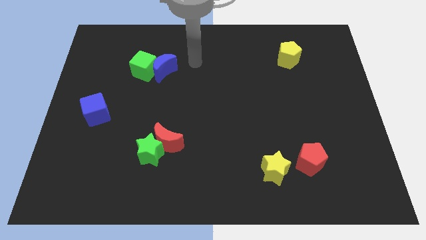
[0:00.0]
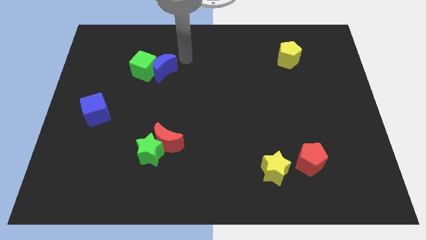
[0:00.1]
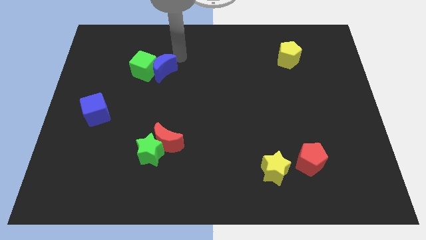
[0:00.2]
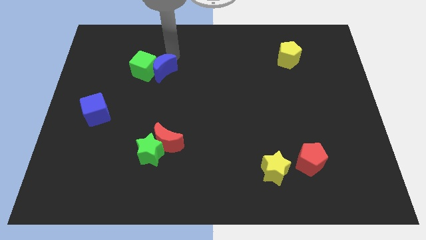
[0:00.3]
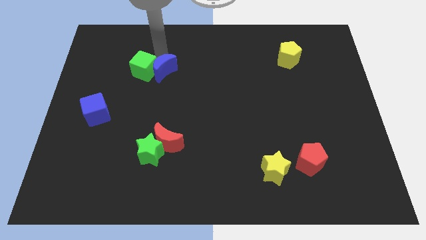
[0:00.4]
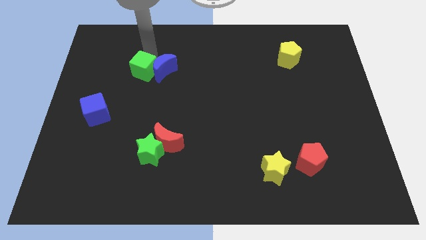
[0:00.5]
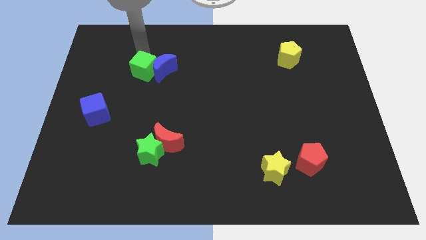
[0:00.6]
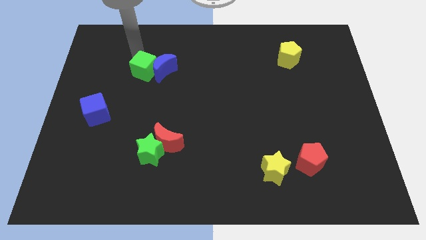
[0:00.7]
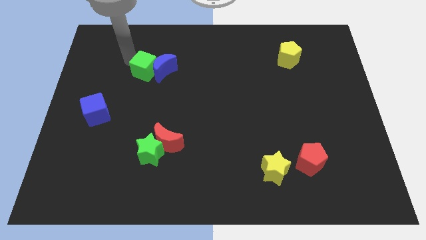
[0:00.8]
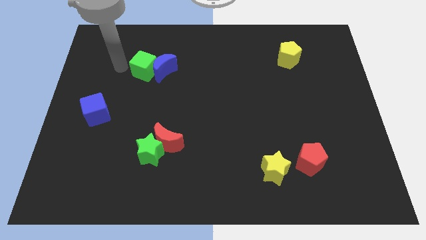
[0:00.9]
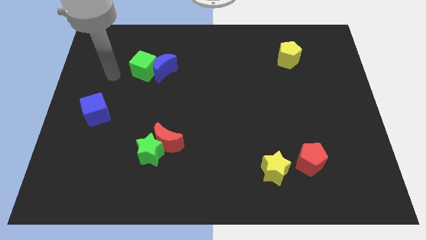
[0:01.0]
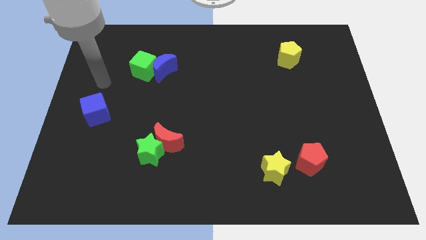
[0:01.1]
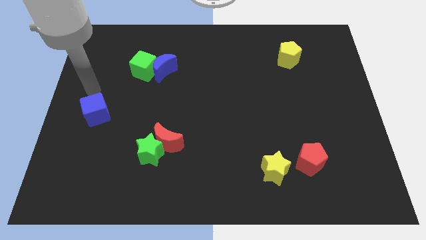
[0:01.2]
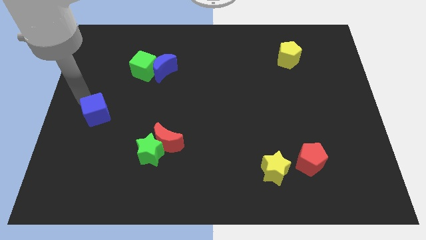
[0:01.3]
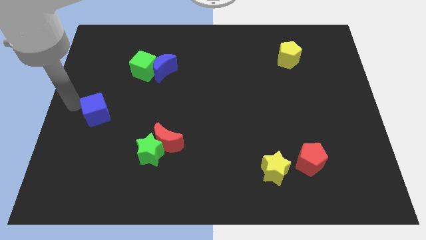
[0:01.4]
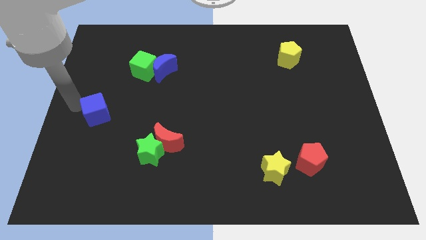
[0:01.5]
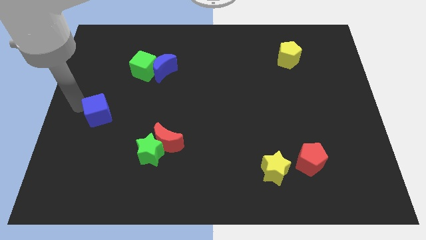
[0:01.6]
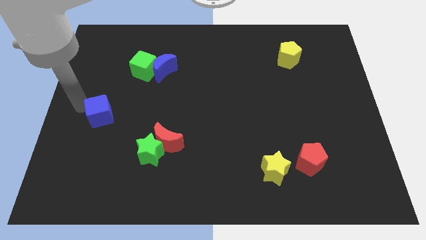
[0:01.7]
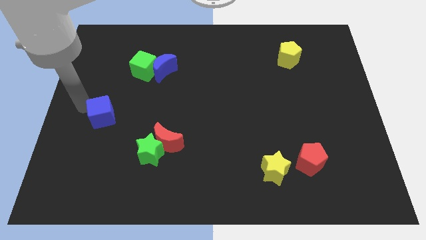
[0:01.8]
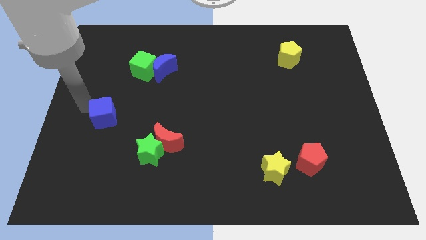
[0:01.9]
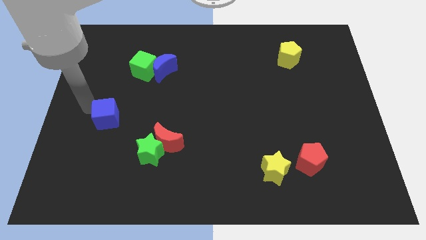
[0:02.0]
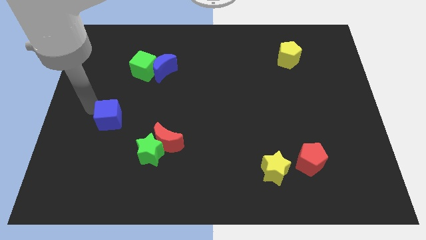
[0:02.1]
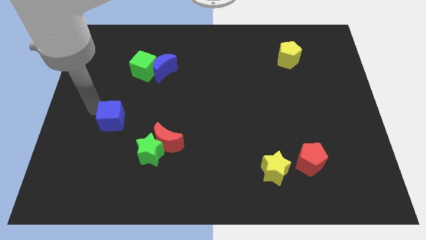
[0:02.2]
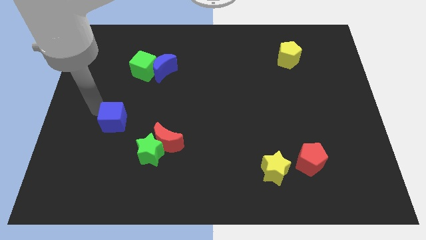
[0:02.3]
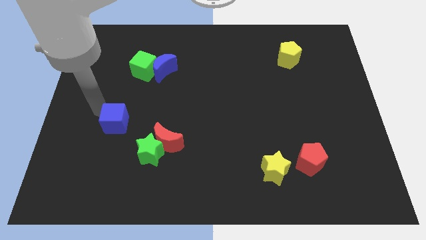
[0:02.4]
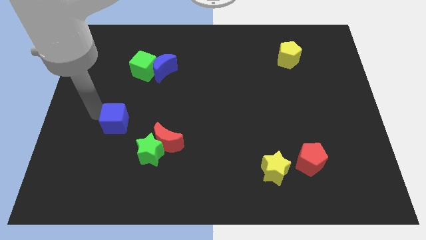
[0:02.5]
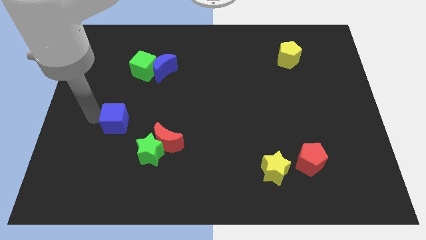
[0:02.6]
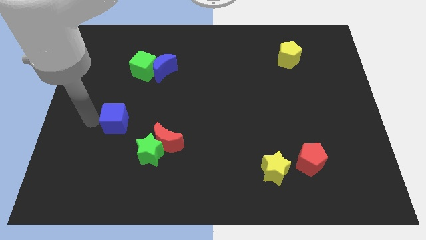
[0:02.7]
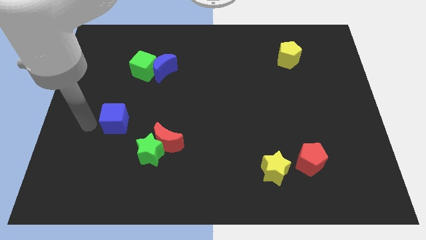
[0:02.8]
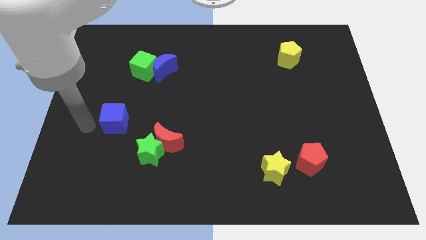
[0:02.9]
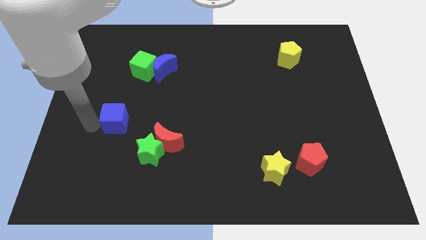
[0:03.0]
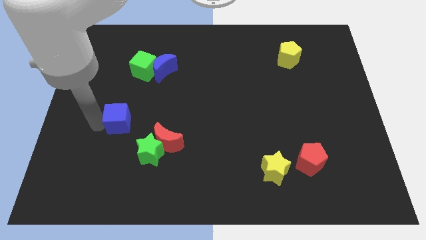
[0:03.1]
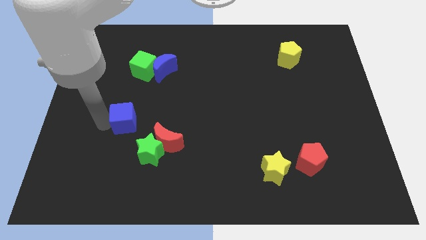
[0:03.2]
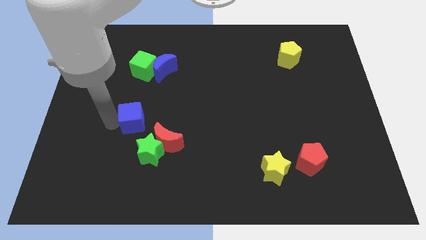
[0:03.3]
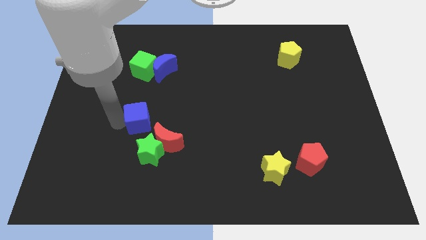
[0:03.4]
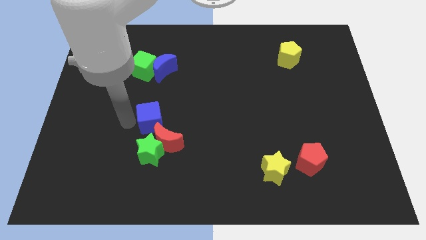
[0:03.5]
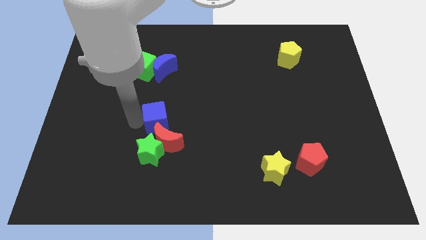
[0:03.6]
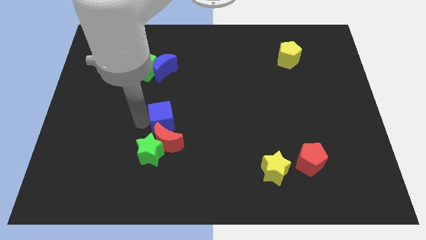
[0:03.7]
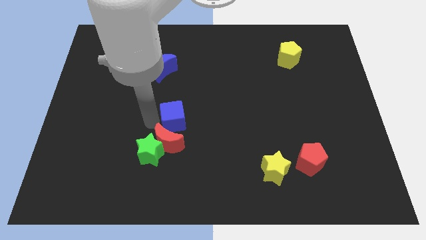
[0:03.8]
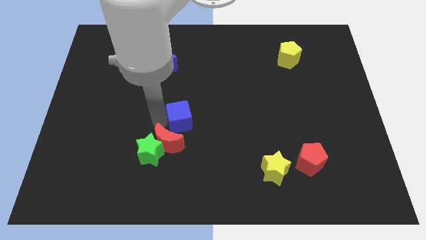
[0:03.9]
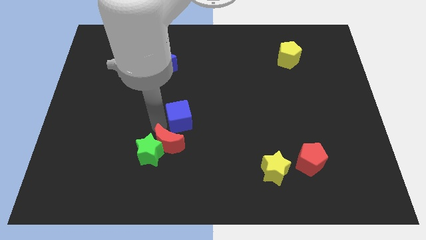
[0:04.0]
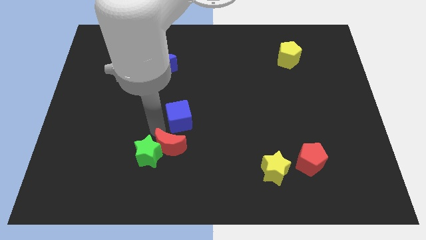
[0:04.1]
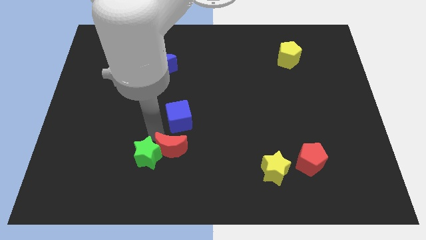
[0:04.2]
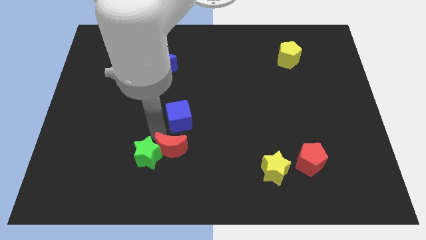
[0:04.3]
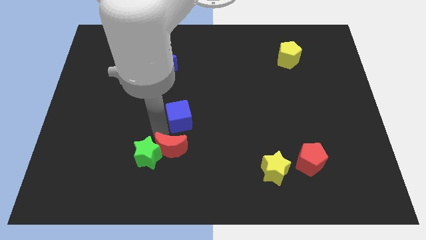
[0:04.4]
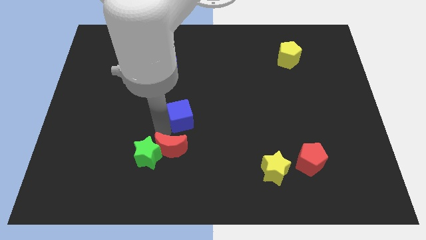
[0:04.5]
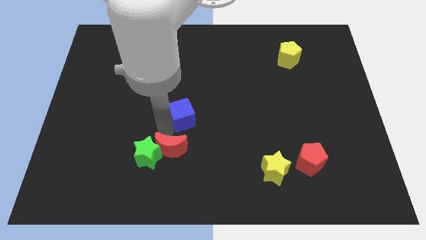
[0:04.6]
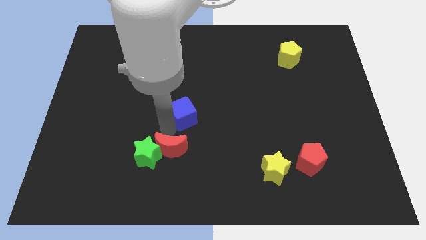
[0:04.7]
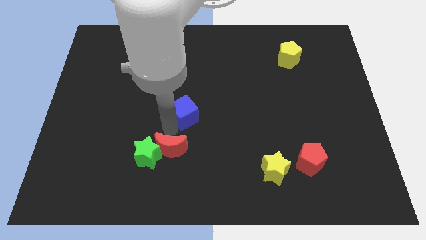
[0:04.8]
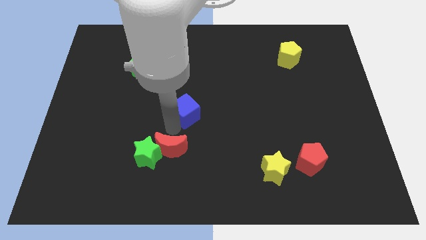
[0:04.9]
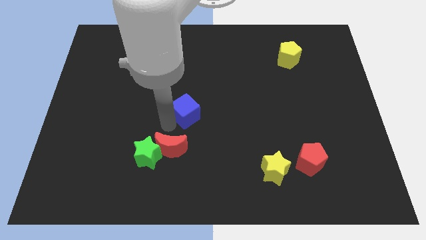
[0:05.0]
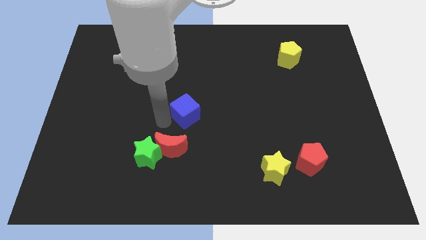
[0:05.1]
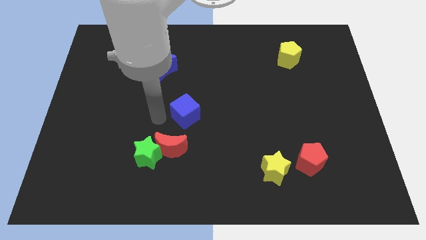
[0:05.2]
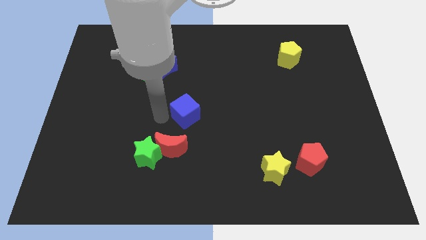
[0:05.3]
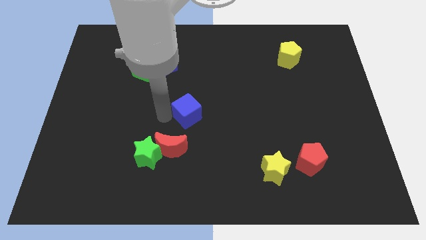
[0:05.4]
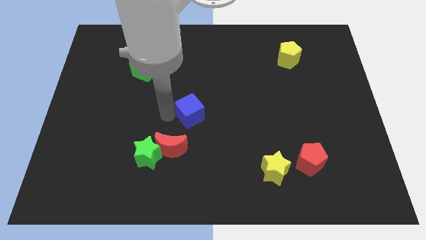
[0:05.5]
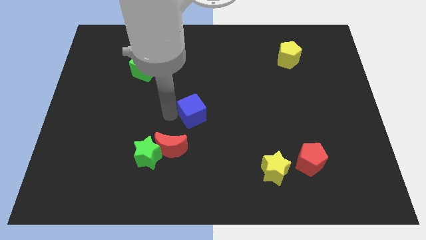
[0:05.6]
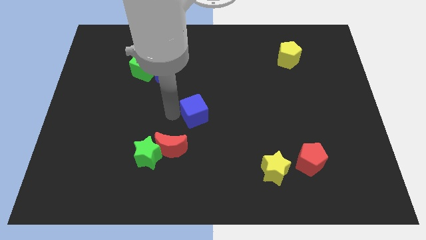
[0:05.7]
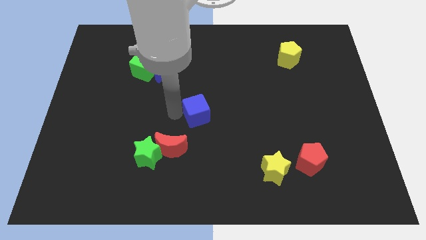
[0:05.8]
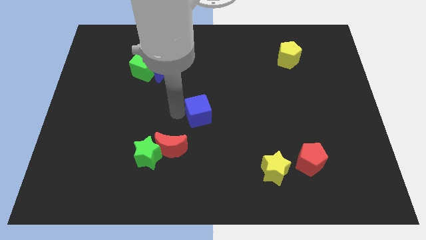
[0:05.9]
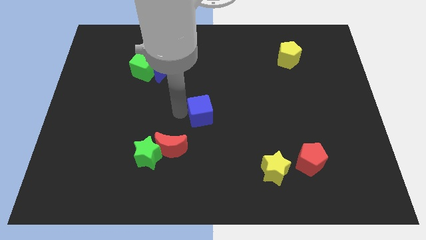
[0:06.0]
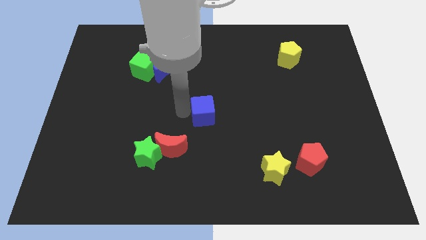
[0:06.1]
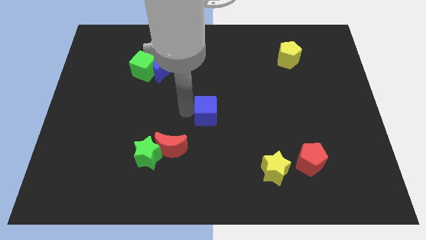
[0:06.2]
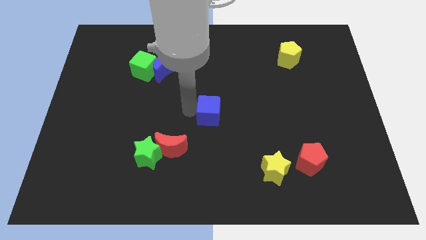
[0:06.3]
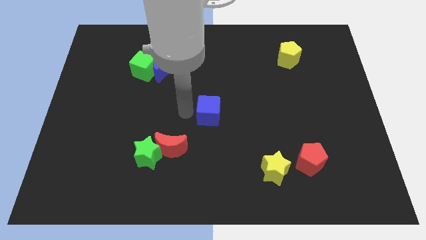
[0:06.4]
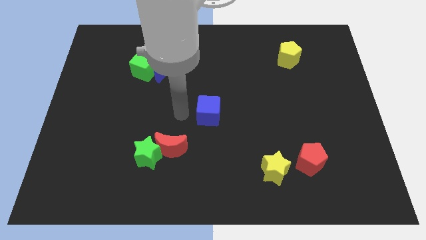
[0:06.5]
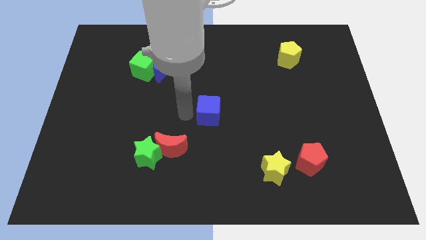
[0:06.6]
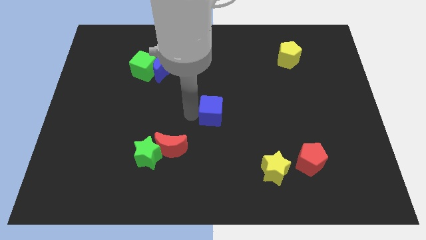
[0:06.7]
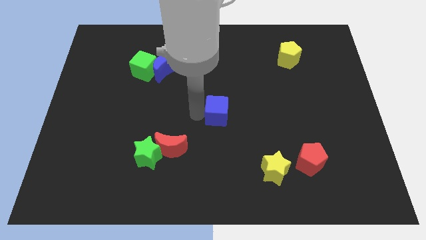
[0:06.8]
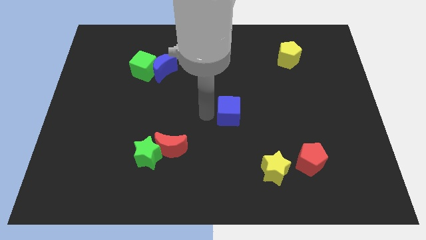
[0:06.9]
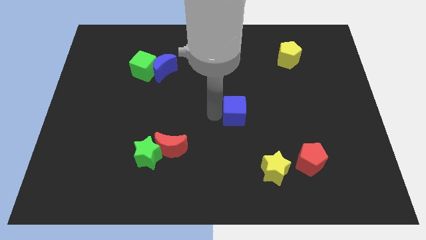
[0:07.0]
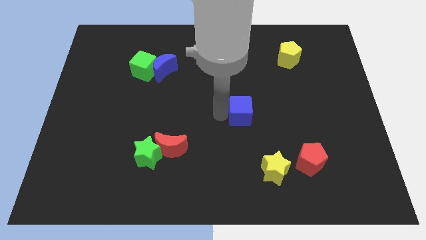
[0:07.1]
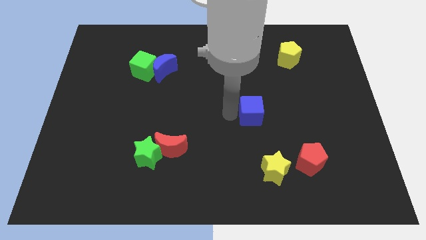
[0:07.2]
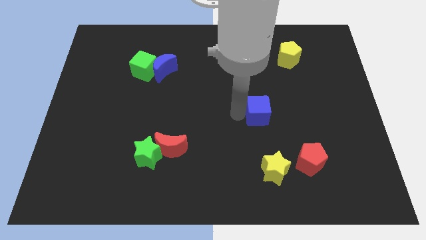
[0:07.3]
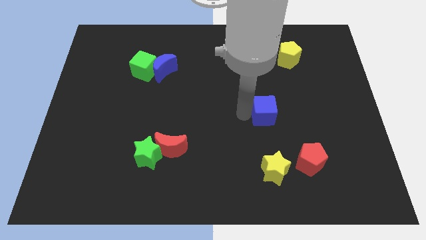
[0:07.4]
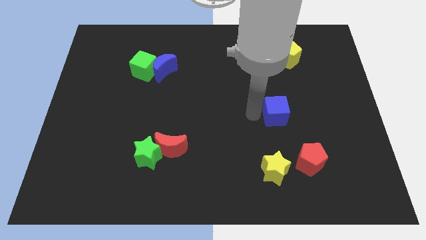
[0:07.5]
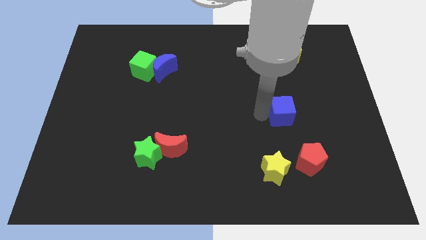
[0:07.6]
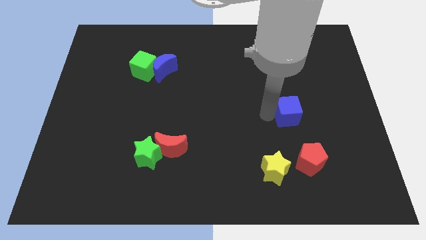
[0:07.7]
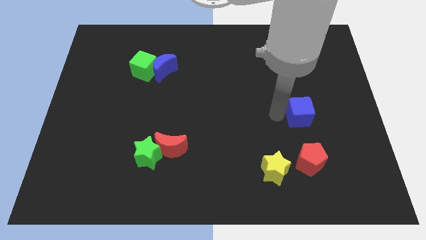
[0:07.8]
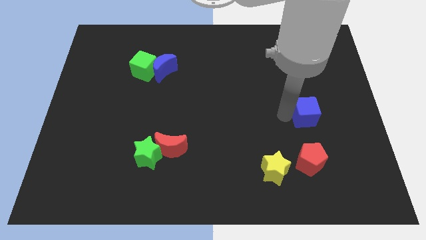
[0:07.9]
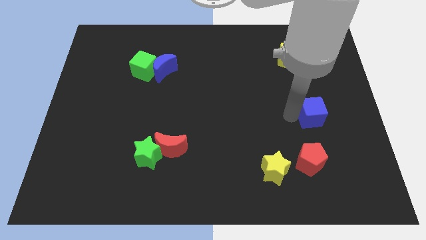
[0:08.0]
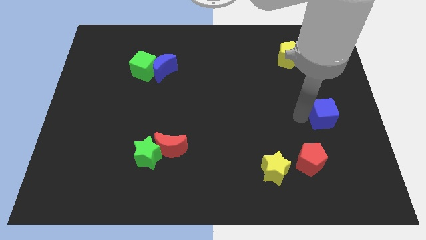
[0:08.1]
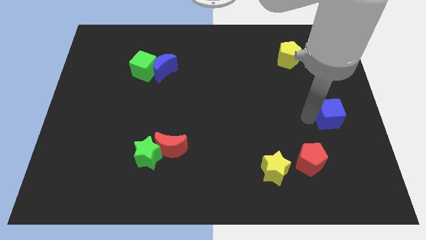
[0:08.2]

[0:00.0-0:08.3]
put the blue cube to the center right
